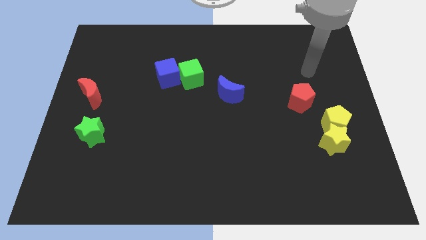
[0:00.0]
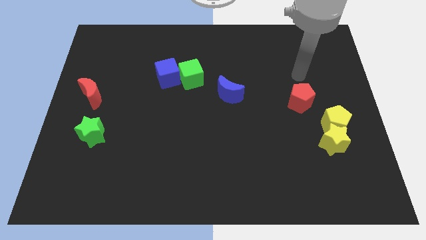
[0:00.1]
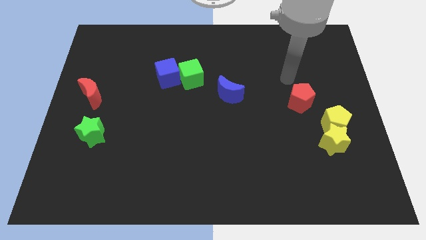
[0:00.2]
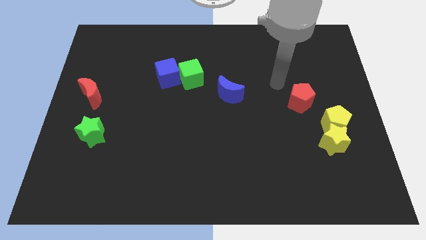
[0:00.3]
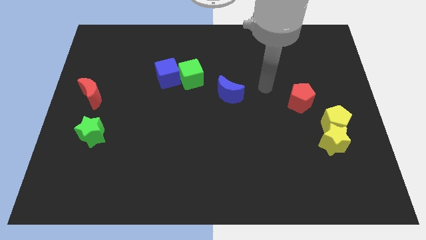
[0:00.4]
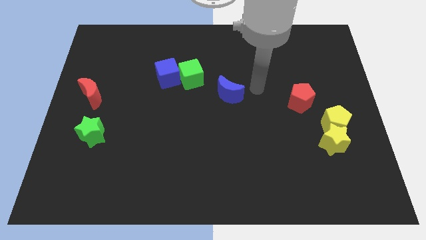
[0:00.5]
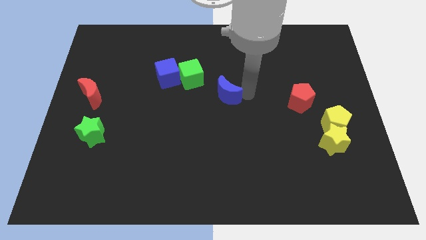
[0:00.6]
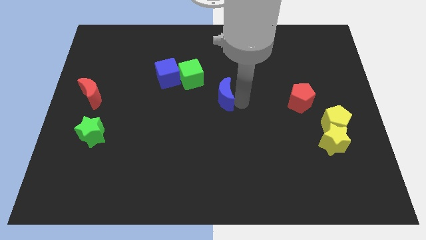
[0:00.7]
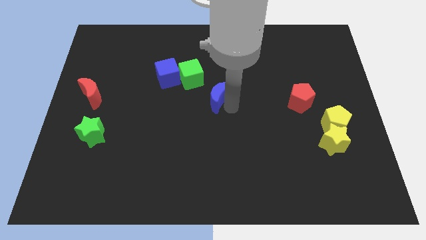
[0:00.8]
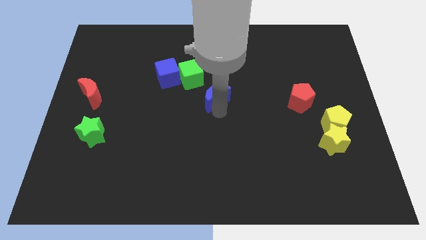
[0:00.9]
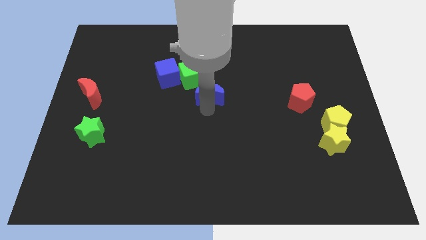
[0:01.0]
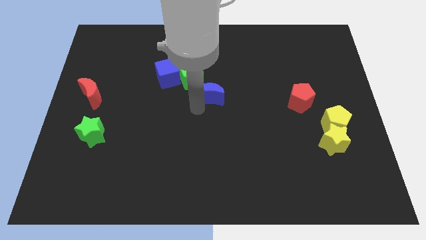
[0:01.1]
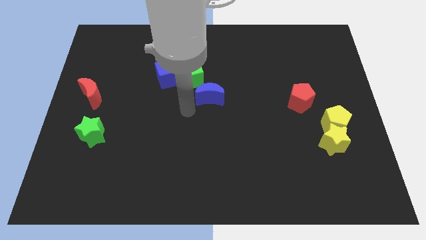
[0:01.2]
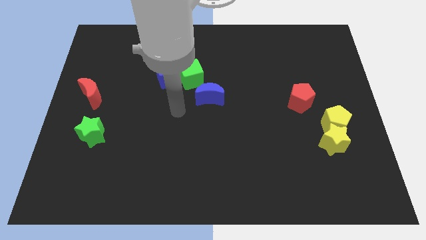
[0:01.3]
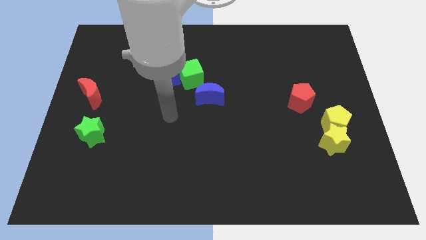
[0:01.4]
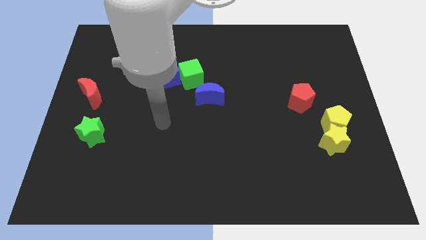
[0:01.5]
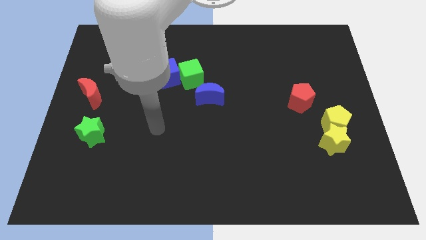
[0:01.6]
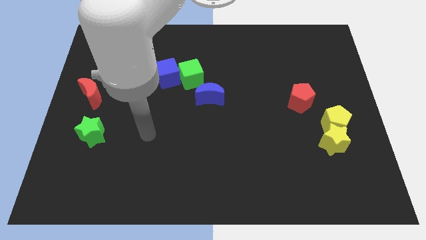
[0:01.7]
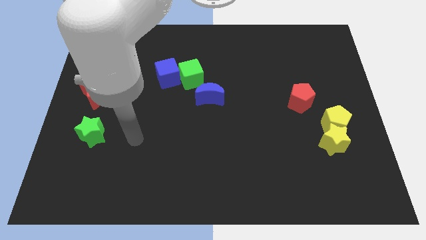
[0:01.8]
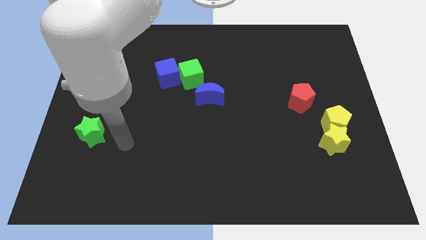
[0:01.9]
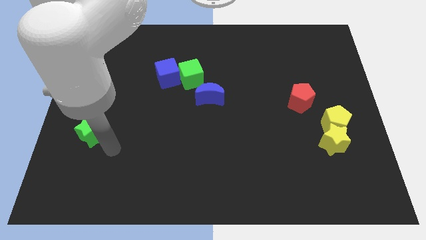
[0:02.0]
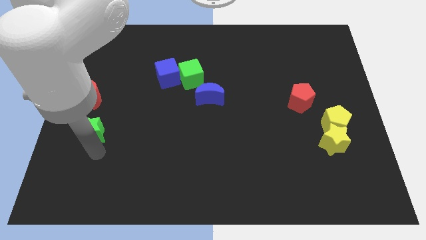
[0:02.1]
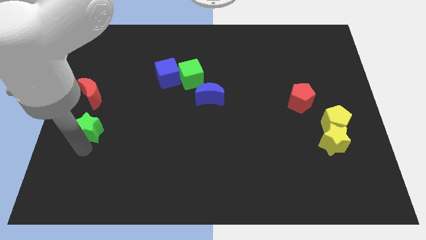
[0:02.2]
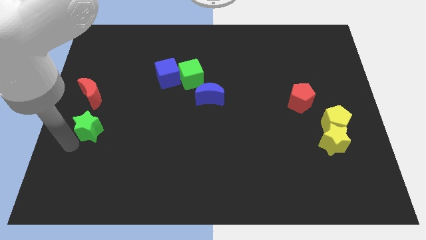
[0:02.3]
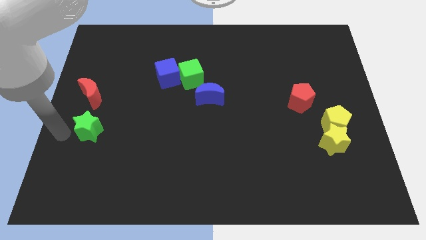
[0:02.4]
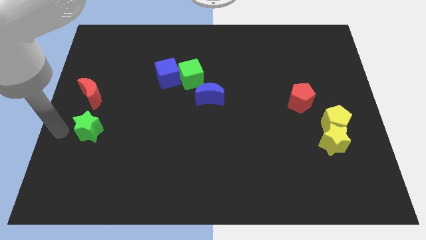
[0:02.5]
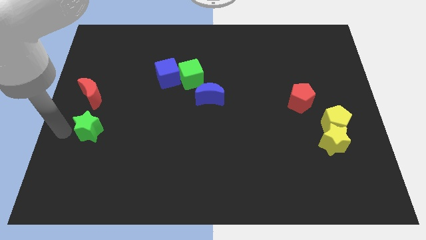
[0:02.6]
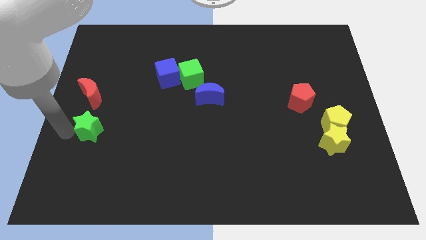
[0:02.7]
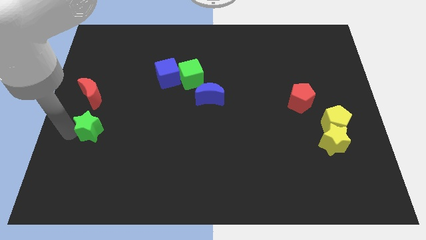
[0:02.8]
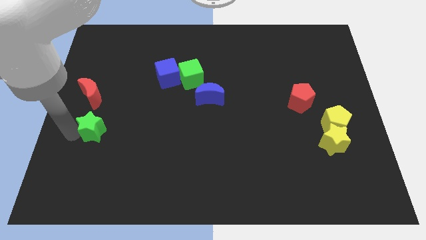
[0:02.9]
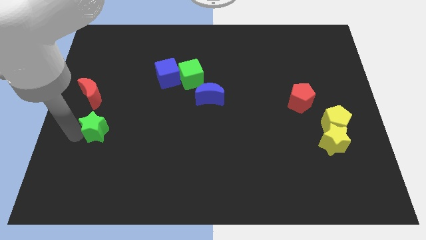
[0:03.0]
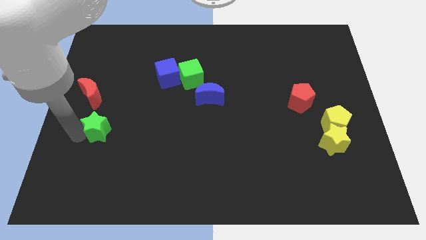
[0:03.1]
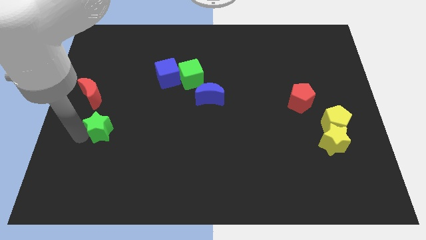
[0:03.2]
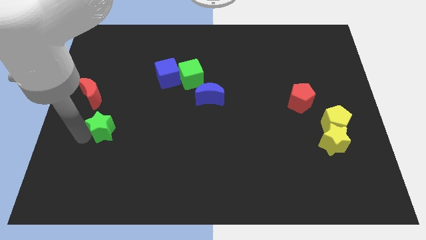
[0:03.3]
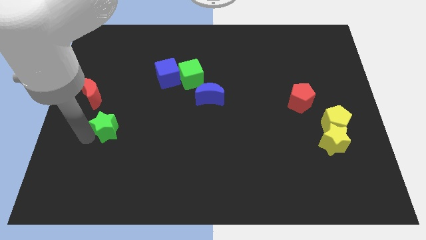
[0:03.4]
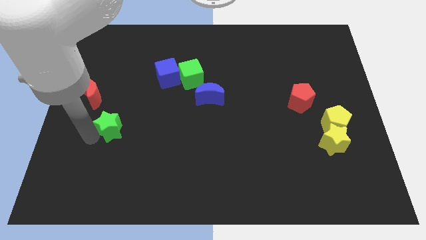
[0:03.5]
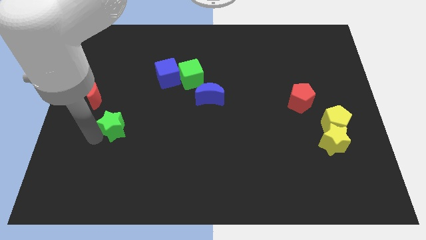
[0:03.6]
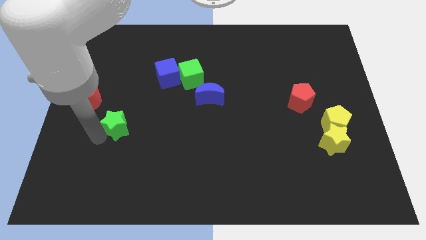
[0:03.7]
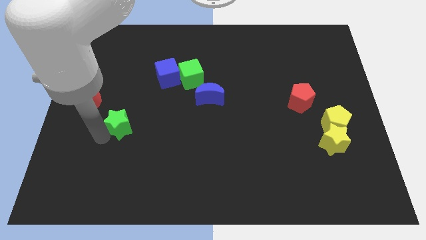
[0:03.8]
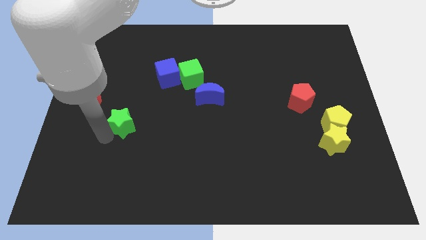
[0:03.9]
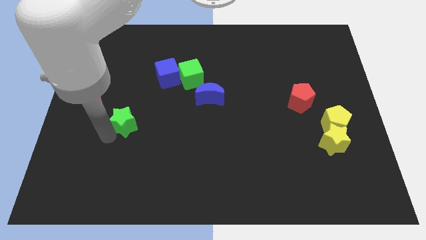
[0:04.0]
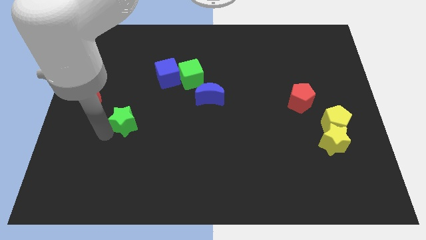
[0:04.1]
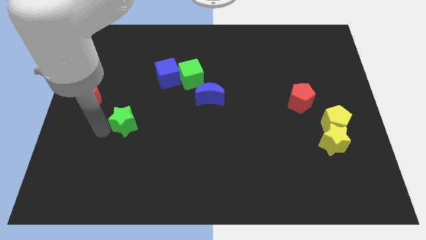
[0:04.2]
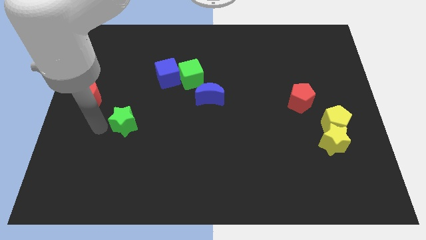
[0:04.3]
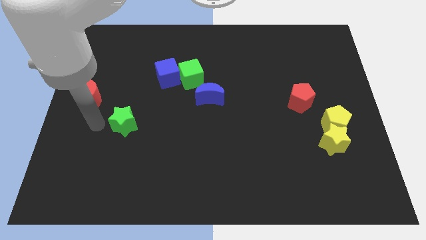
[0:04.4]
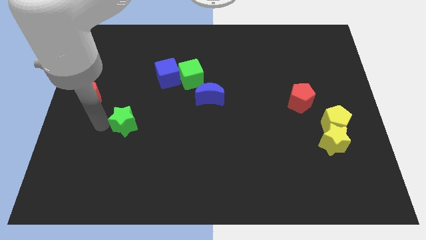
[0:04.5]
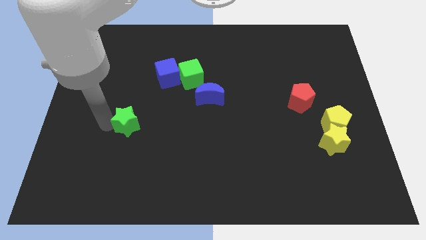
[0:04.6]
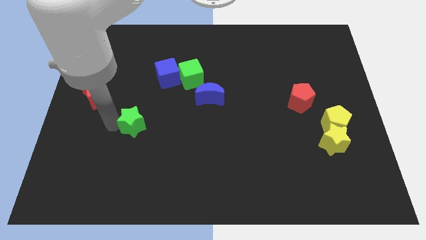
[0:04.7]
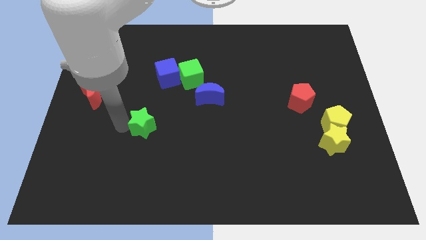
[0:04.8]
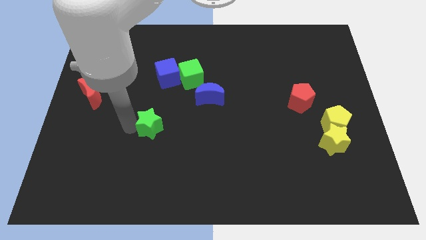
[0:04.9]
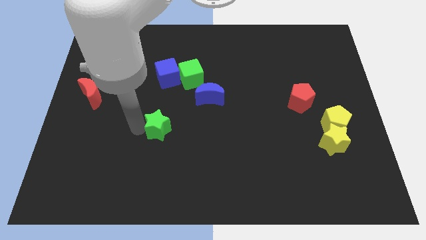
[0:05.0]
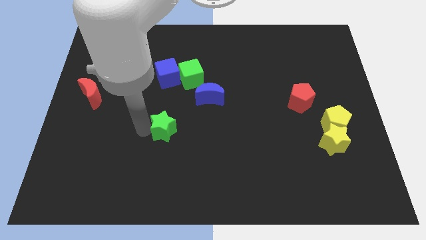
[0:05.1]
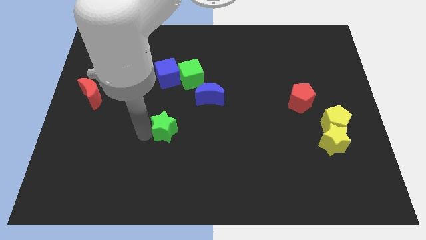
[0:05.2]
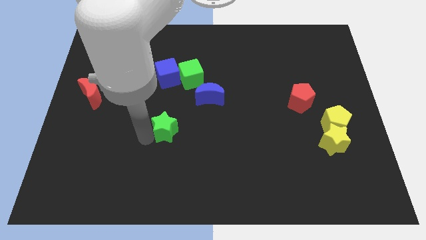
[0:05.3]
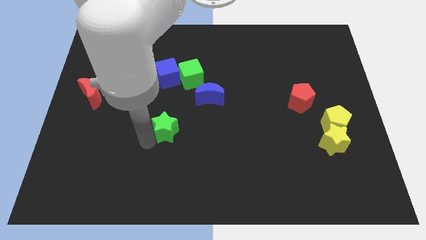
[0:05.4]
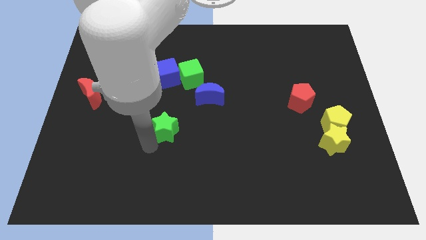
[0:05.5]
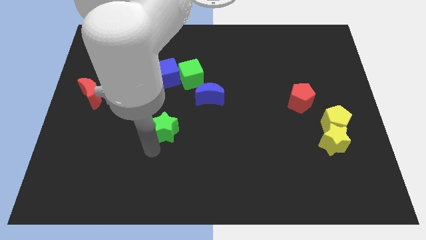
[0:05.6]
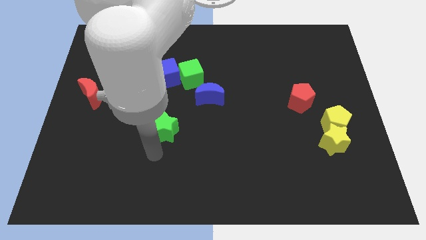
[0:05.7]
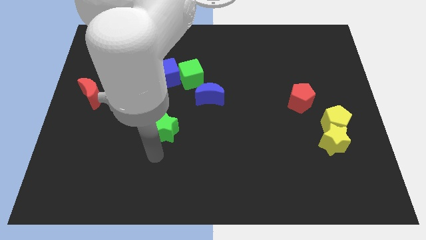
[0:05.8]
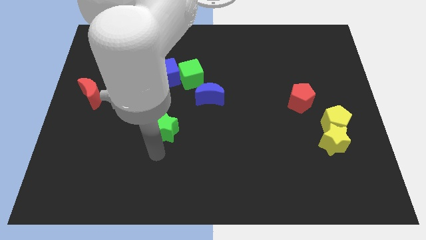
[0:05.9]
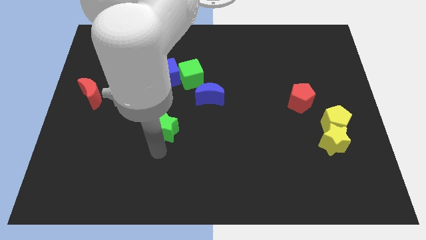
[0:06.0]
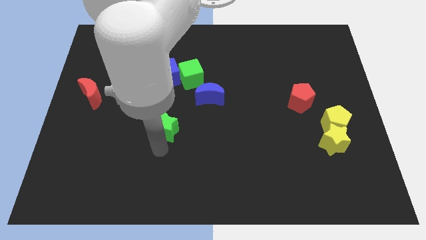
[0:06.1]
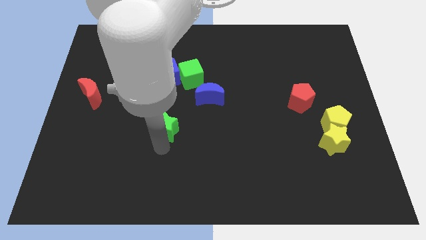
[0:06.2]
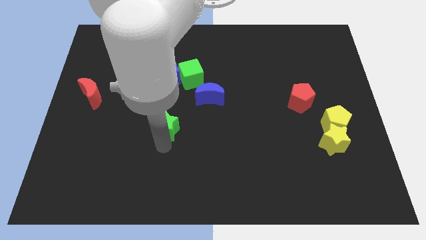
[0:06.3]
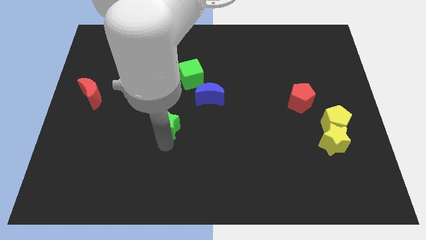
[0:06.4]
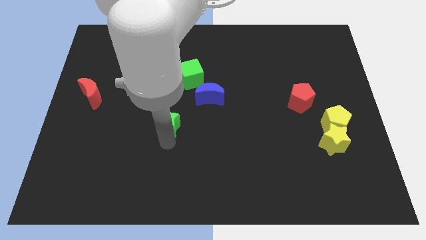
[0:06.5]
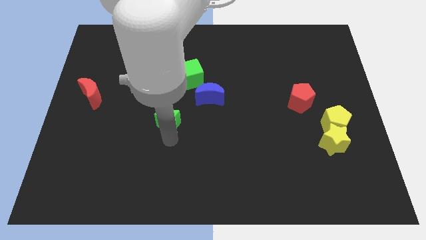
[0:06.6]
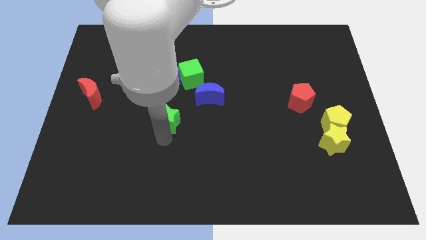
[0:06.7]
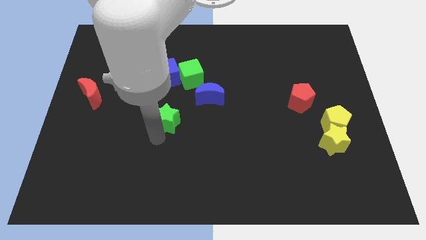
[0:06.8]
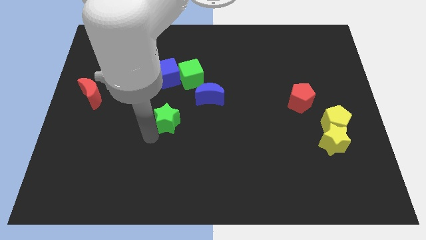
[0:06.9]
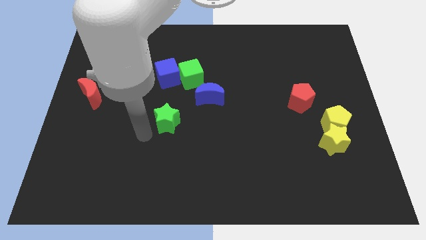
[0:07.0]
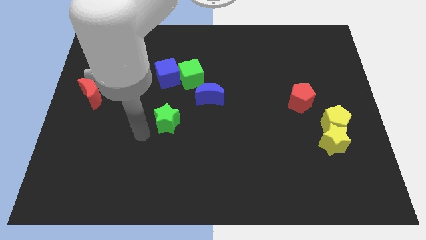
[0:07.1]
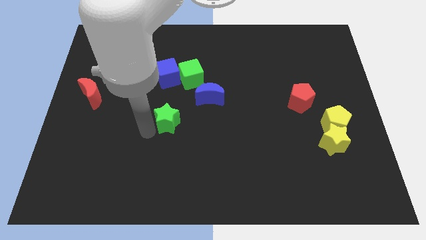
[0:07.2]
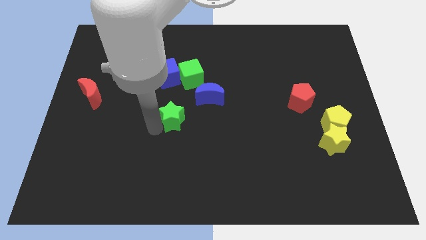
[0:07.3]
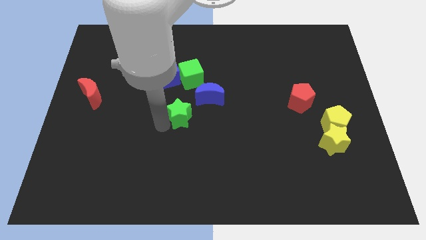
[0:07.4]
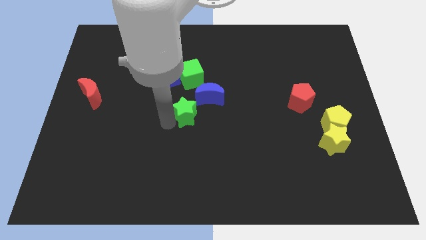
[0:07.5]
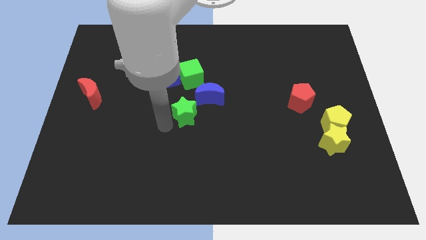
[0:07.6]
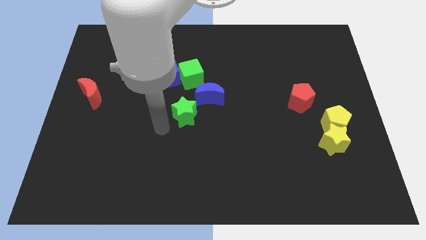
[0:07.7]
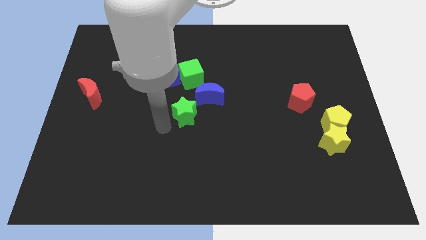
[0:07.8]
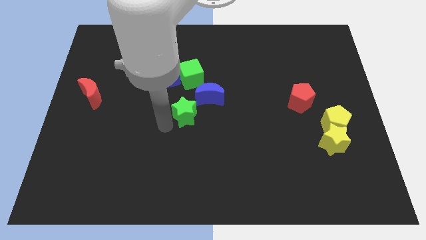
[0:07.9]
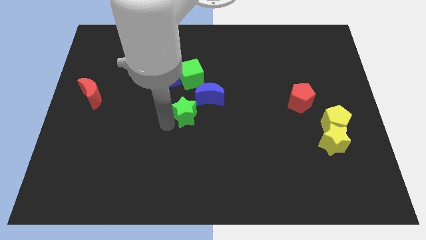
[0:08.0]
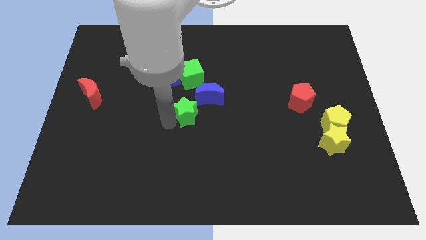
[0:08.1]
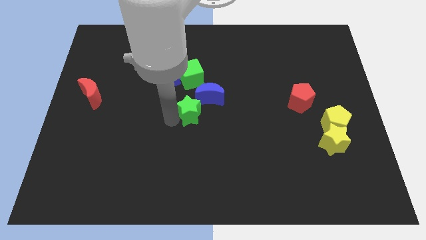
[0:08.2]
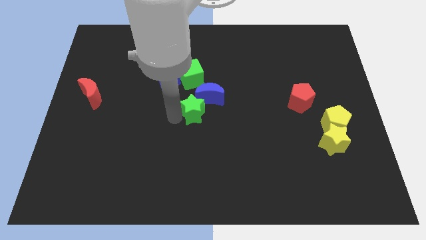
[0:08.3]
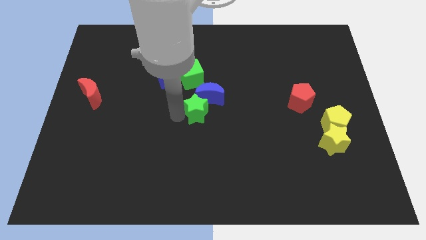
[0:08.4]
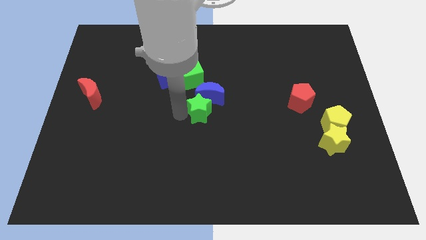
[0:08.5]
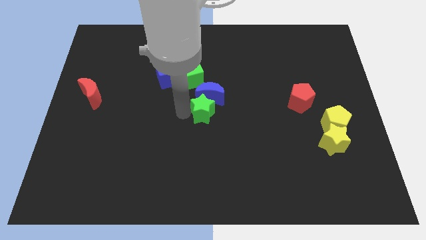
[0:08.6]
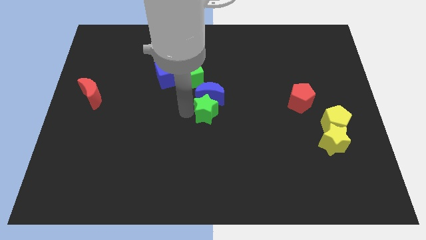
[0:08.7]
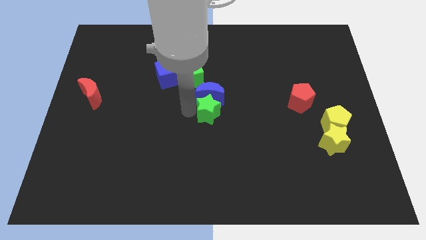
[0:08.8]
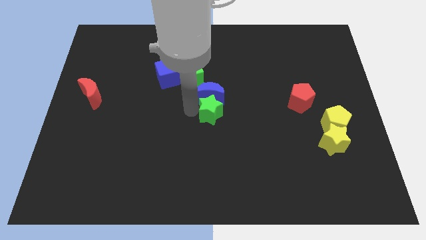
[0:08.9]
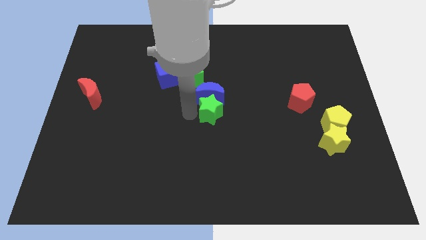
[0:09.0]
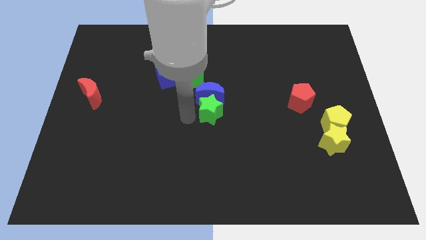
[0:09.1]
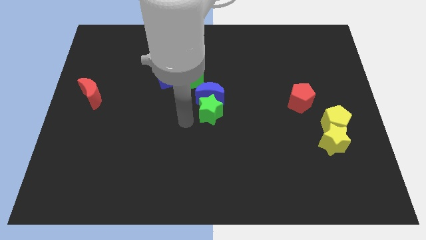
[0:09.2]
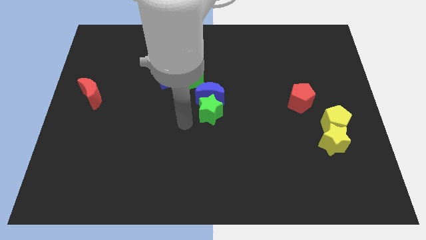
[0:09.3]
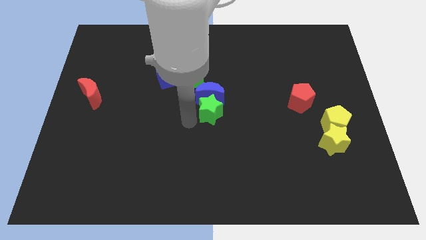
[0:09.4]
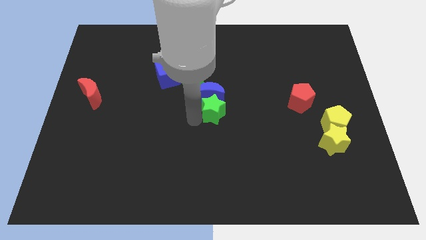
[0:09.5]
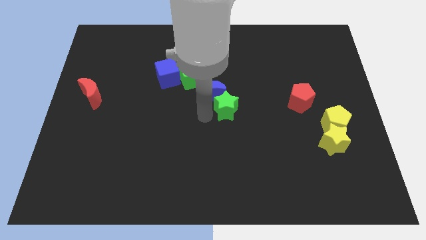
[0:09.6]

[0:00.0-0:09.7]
push the green star just right of the blue moon
